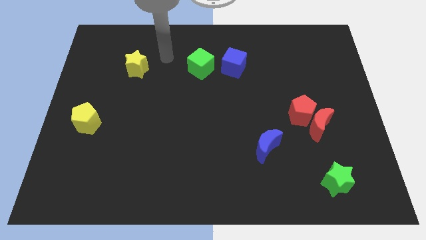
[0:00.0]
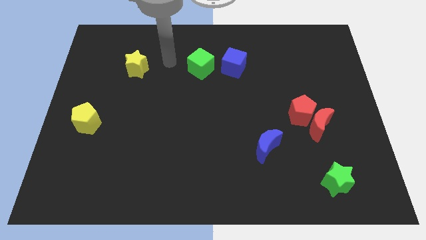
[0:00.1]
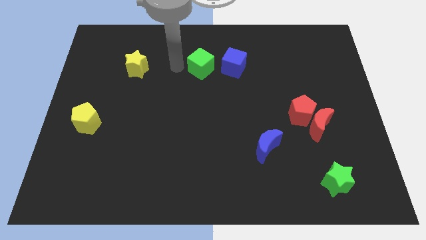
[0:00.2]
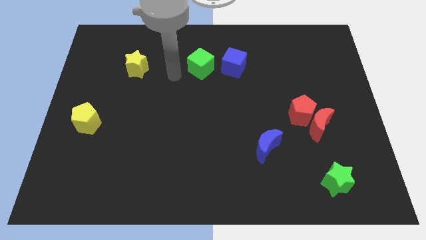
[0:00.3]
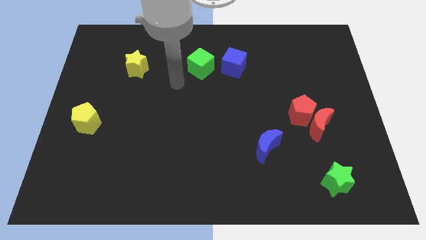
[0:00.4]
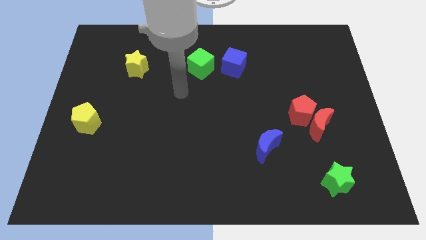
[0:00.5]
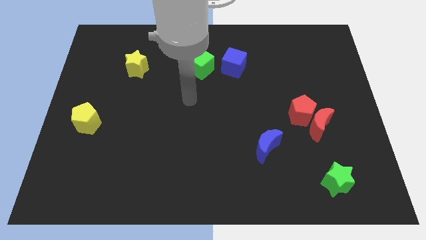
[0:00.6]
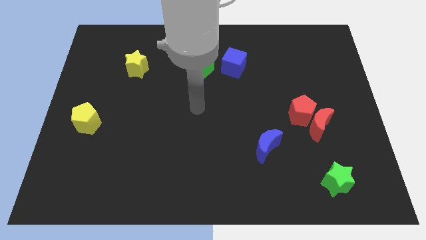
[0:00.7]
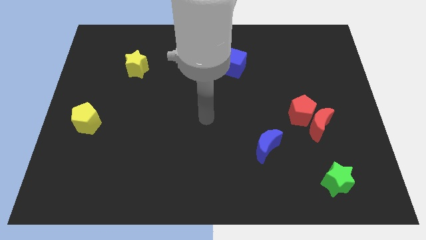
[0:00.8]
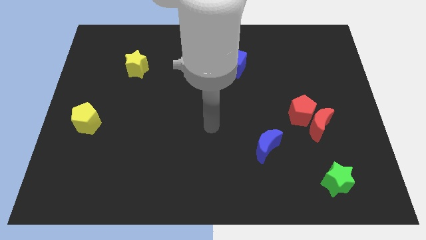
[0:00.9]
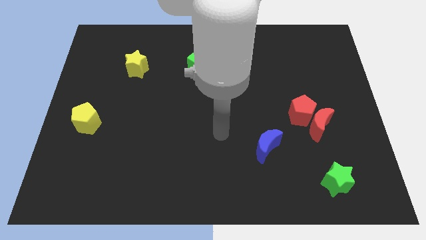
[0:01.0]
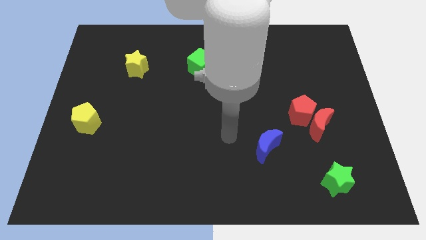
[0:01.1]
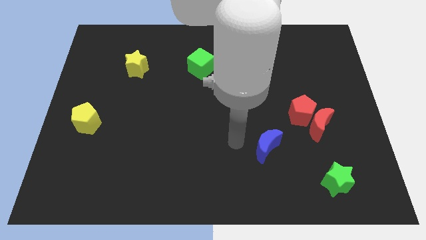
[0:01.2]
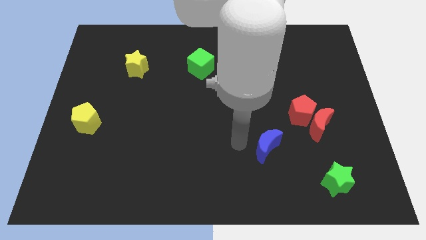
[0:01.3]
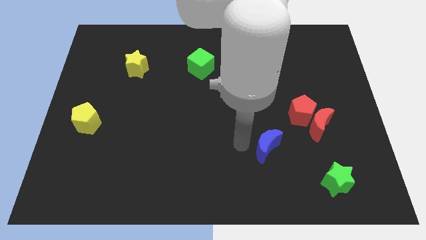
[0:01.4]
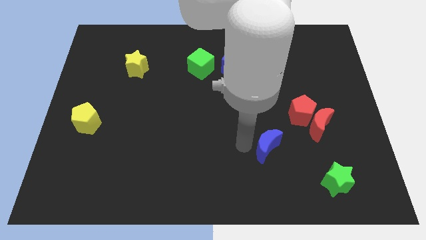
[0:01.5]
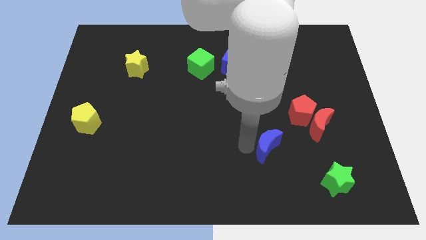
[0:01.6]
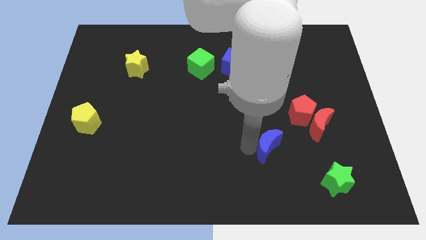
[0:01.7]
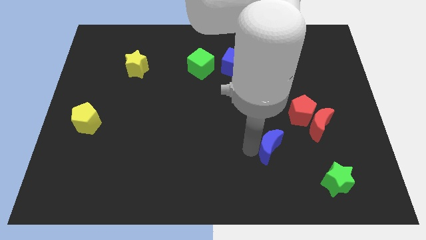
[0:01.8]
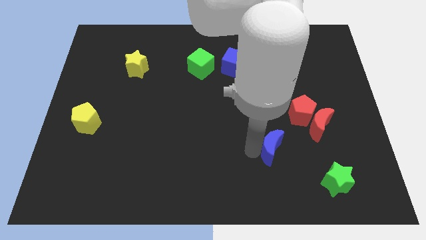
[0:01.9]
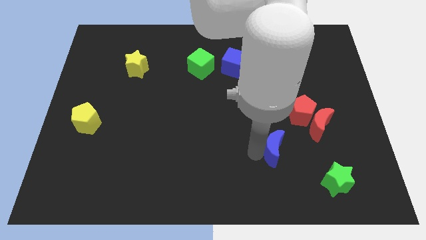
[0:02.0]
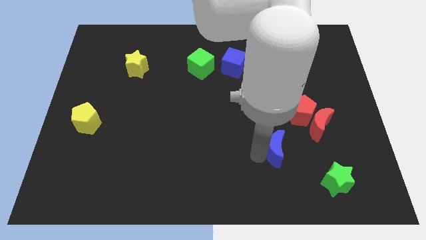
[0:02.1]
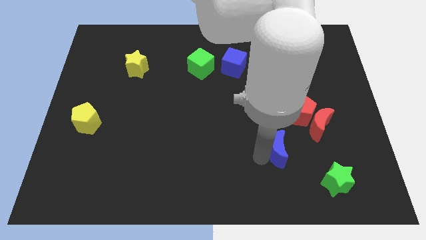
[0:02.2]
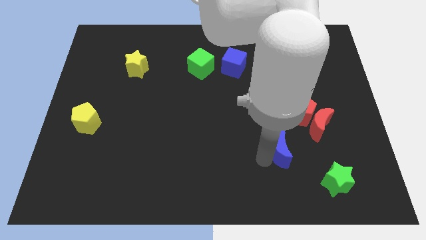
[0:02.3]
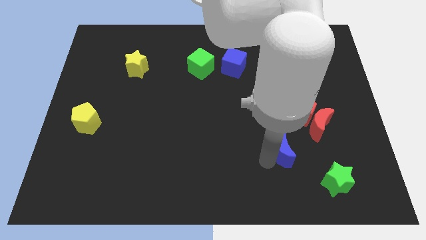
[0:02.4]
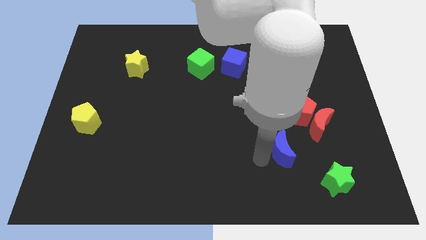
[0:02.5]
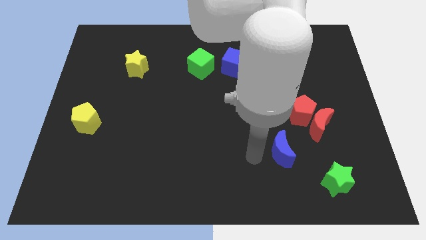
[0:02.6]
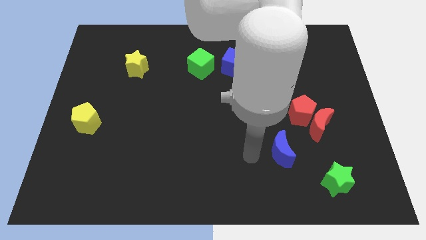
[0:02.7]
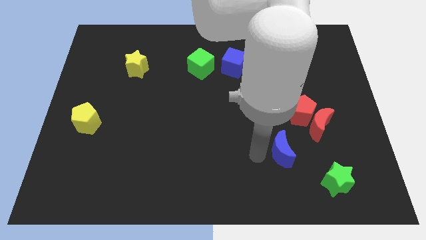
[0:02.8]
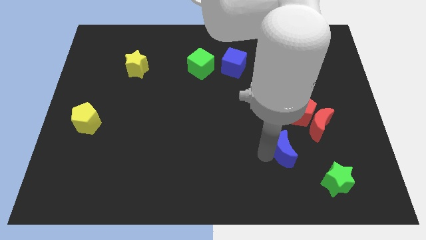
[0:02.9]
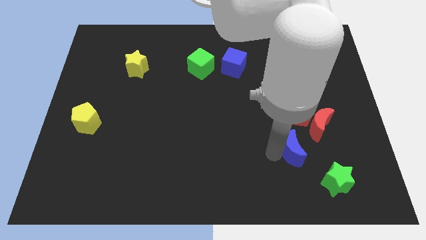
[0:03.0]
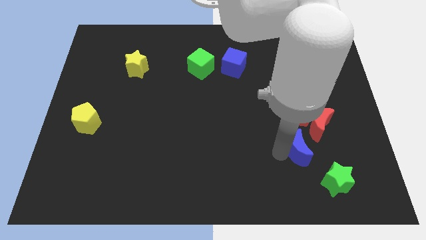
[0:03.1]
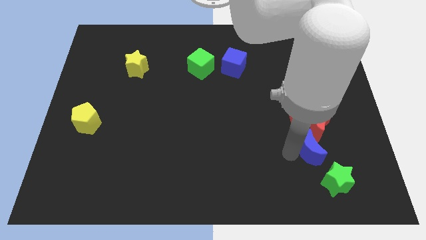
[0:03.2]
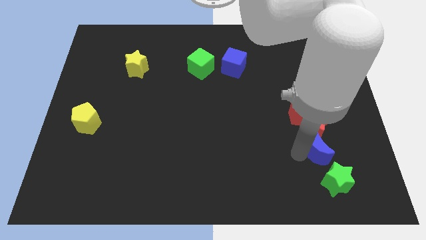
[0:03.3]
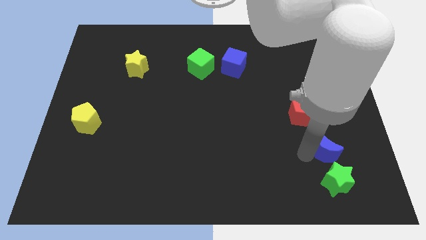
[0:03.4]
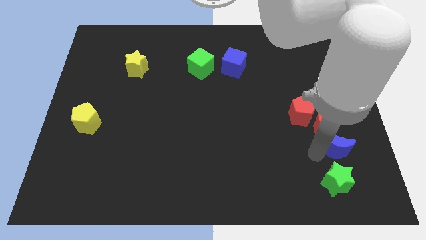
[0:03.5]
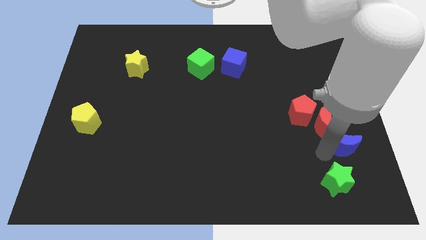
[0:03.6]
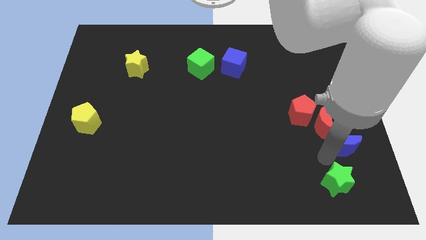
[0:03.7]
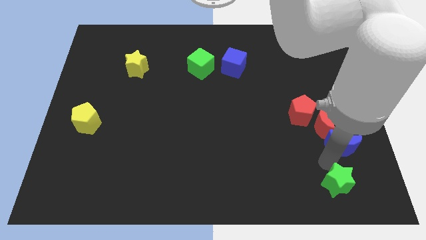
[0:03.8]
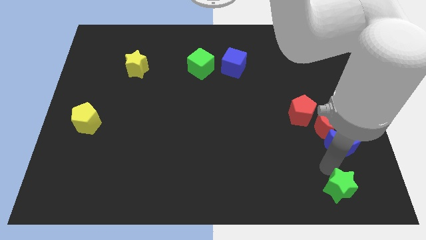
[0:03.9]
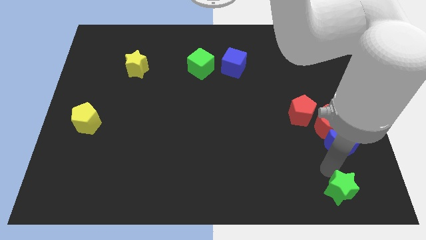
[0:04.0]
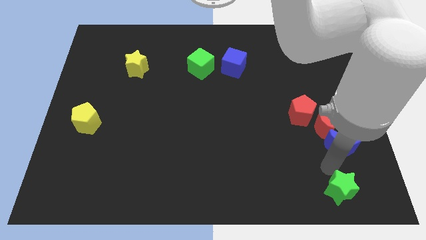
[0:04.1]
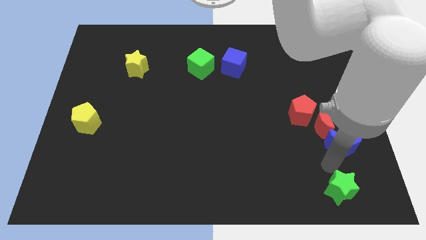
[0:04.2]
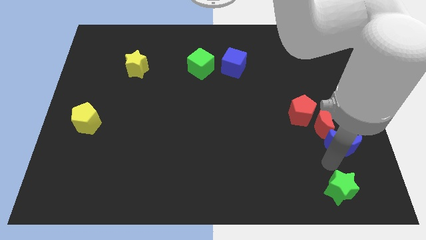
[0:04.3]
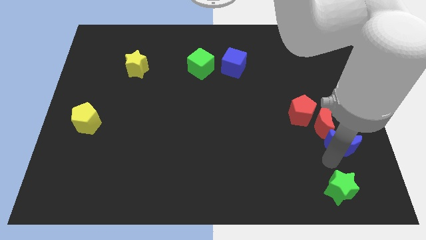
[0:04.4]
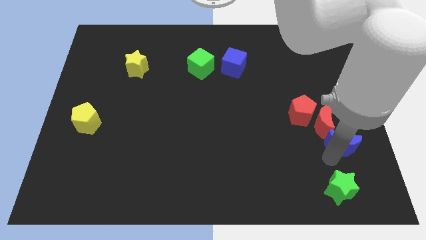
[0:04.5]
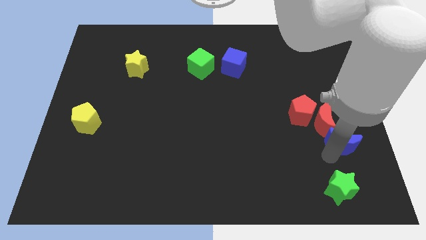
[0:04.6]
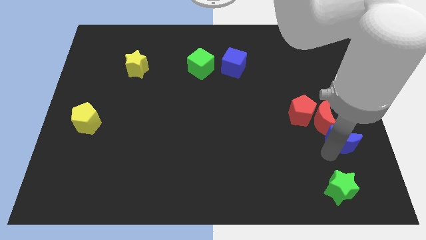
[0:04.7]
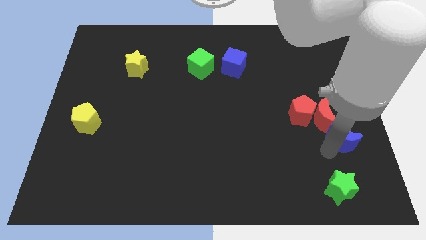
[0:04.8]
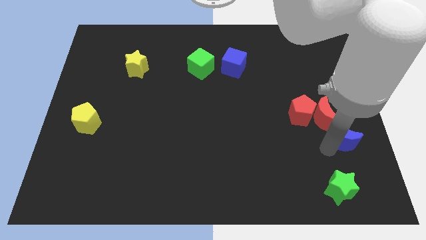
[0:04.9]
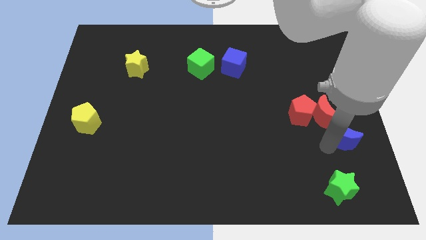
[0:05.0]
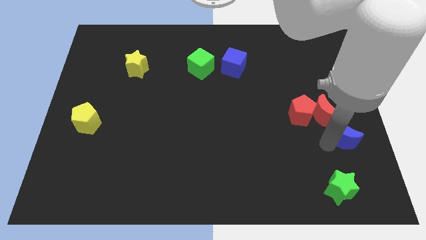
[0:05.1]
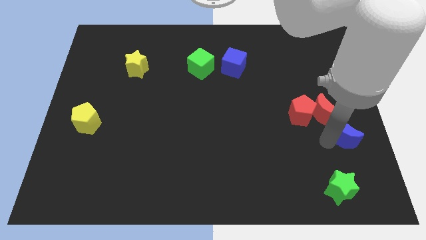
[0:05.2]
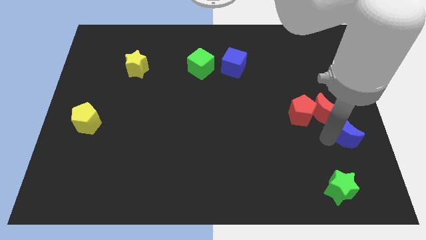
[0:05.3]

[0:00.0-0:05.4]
push the blue moon to the right side

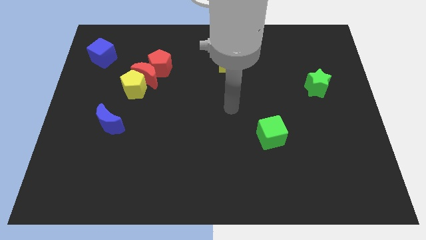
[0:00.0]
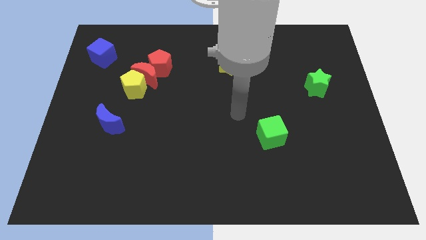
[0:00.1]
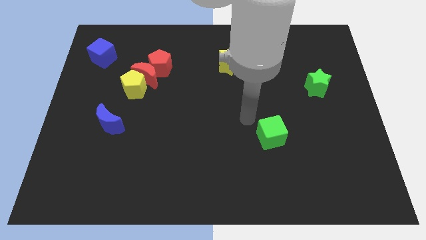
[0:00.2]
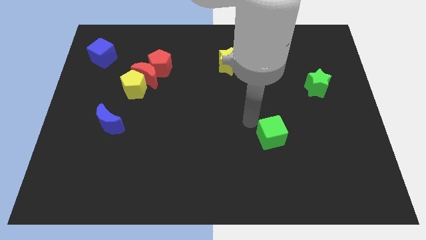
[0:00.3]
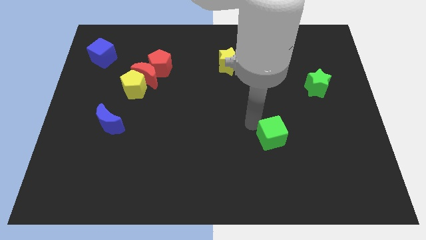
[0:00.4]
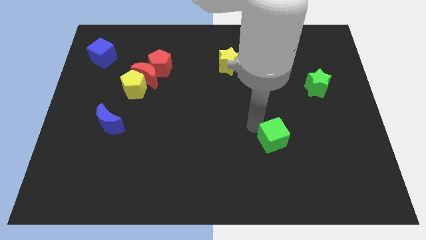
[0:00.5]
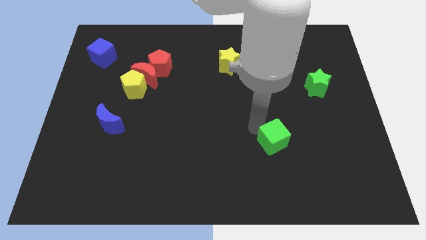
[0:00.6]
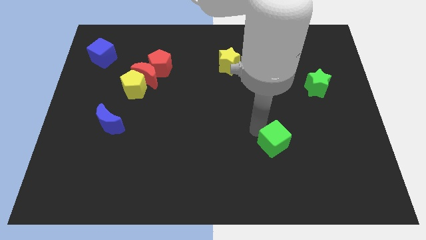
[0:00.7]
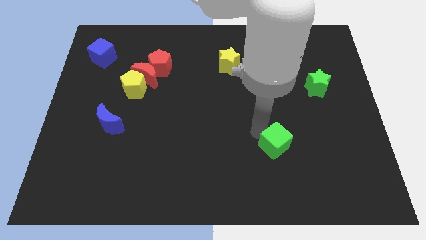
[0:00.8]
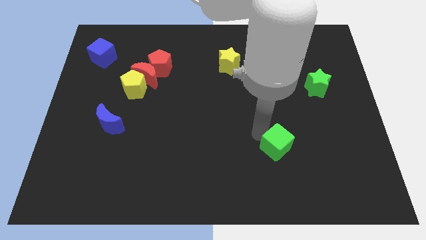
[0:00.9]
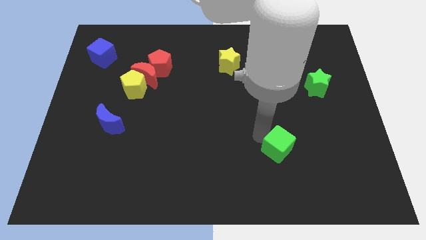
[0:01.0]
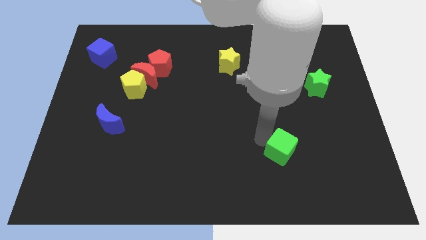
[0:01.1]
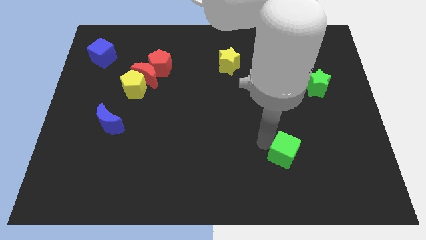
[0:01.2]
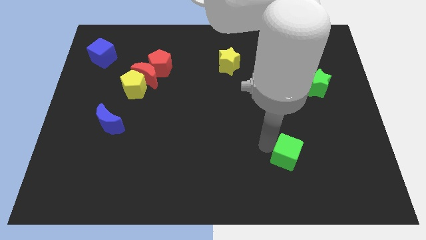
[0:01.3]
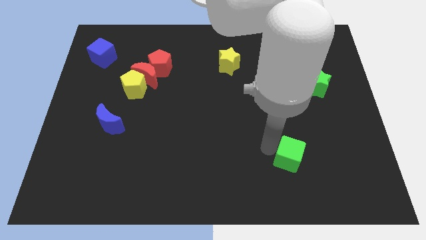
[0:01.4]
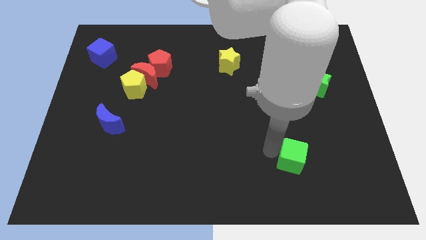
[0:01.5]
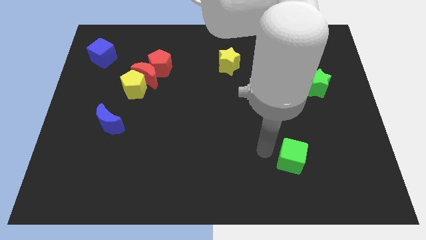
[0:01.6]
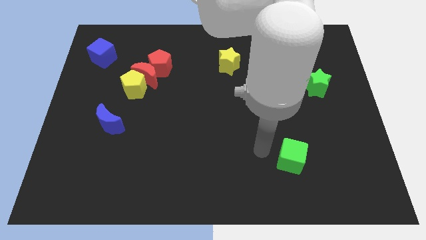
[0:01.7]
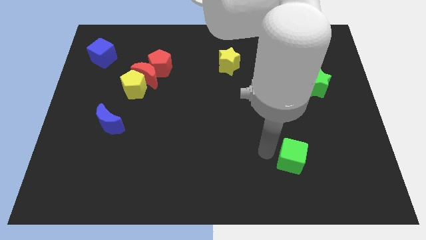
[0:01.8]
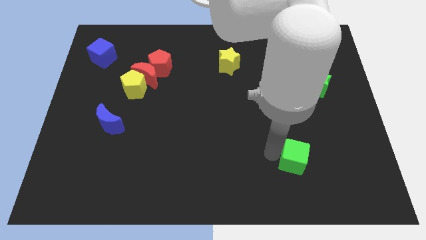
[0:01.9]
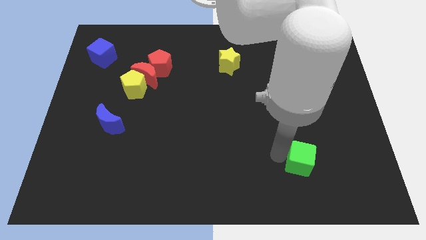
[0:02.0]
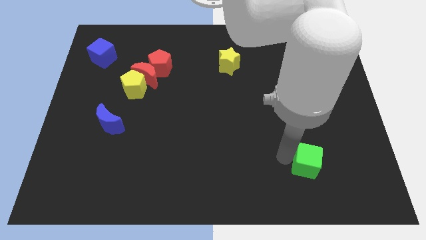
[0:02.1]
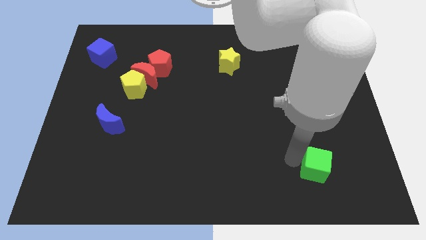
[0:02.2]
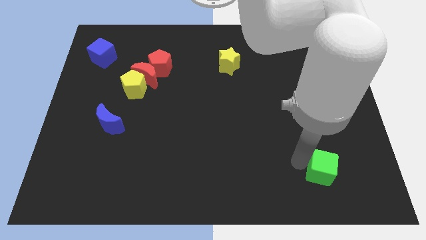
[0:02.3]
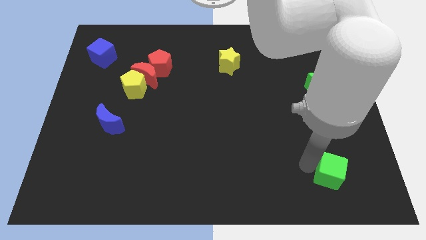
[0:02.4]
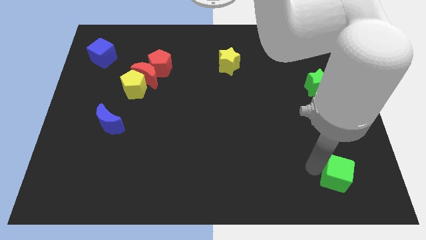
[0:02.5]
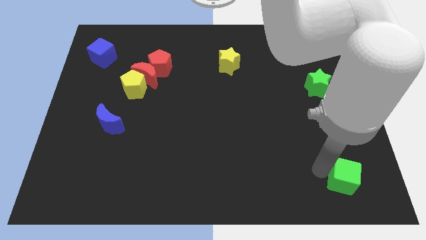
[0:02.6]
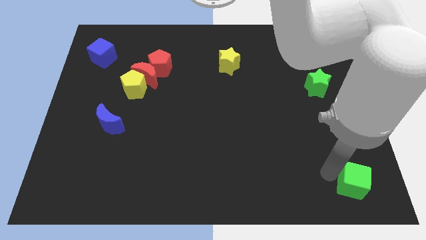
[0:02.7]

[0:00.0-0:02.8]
slide the green cube to the lower right corner
